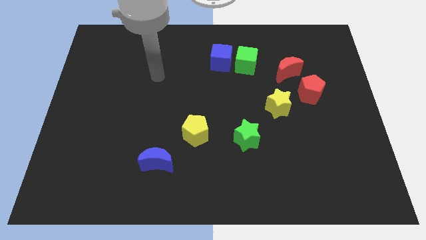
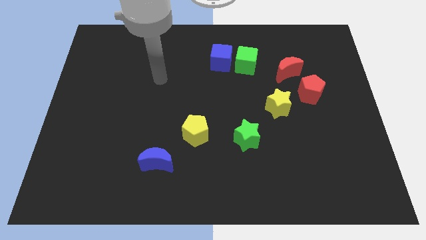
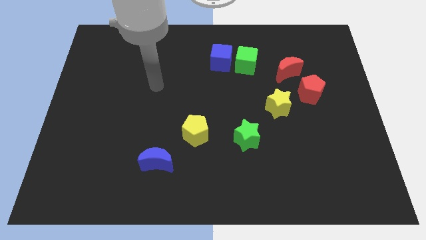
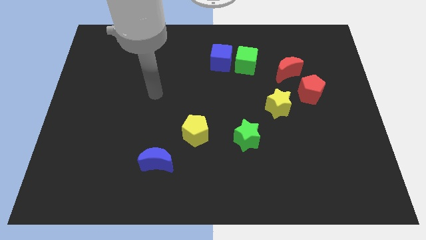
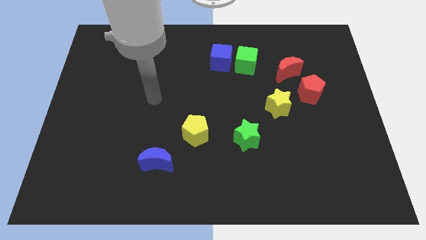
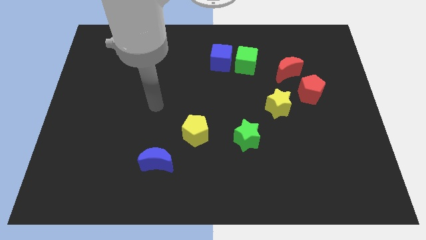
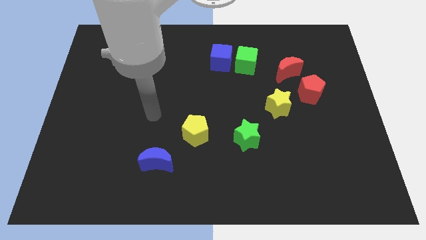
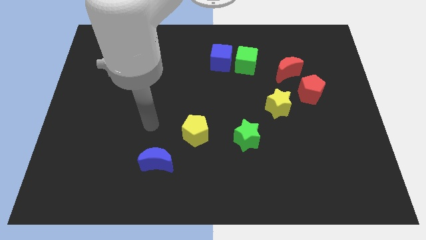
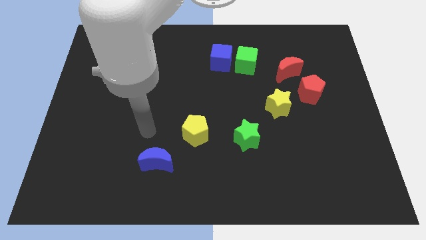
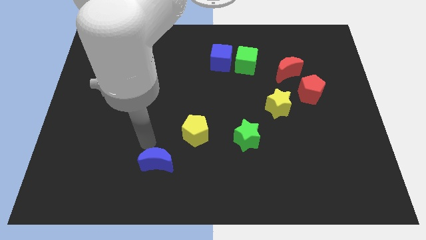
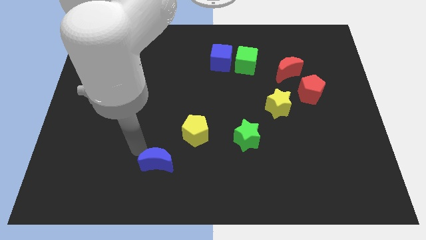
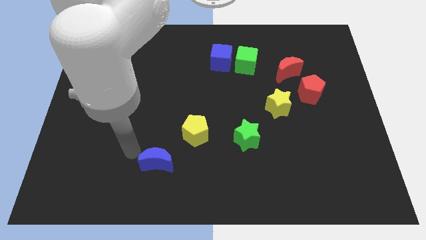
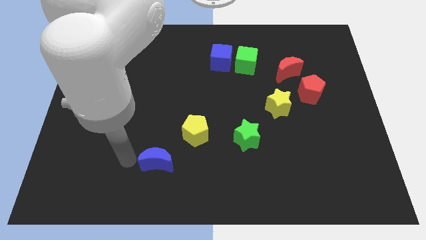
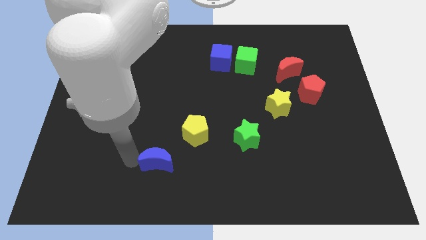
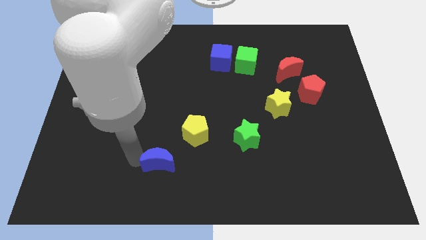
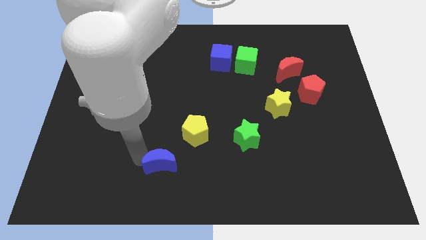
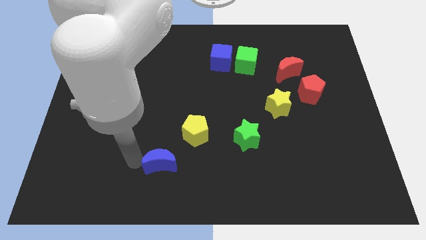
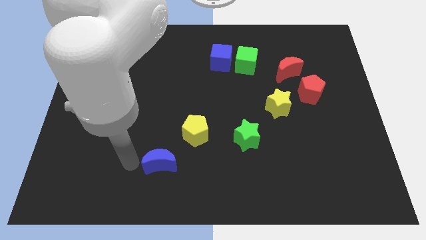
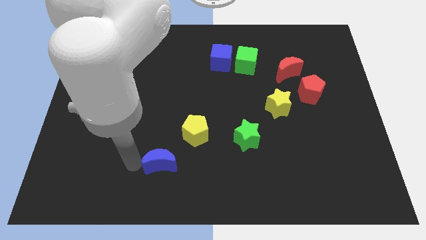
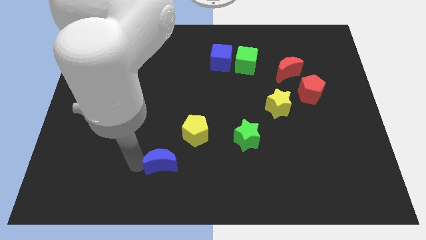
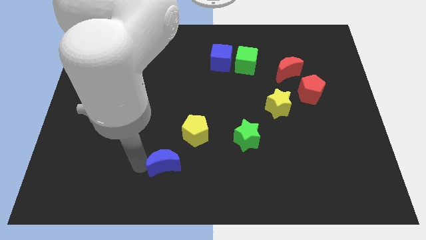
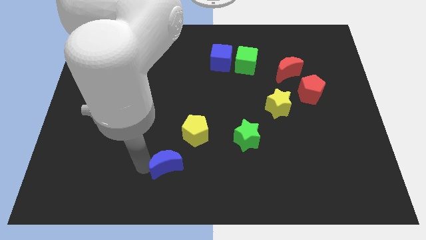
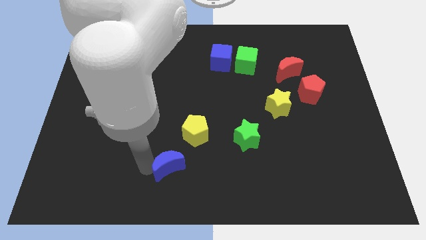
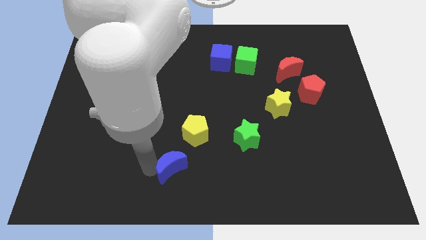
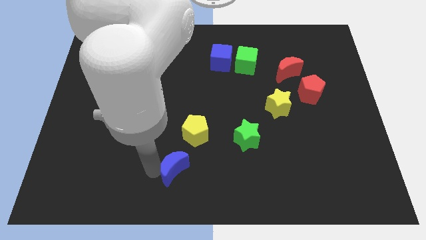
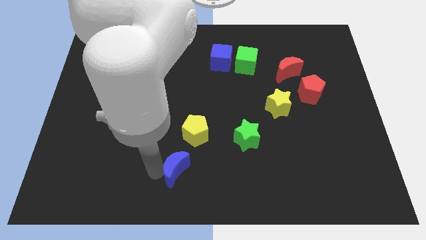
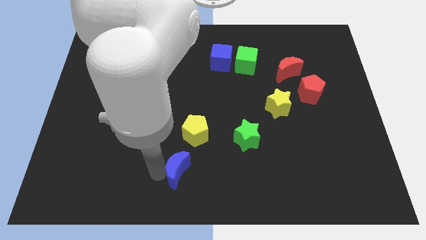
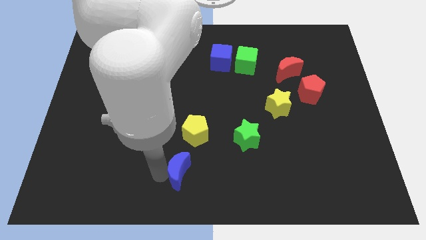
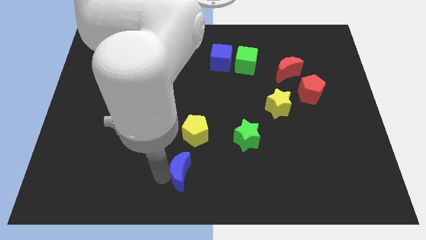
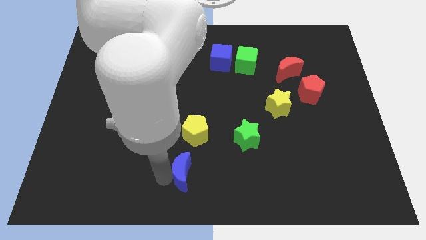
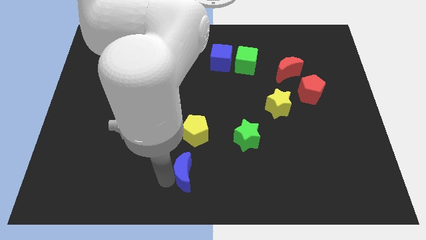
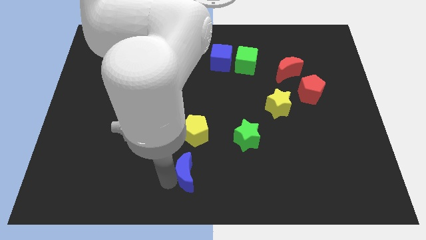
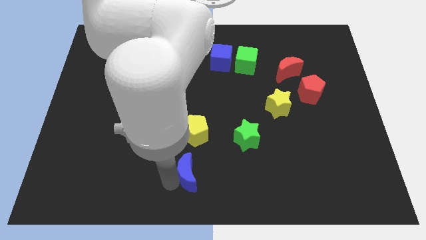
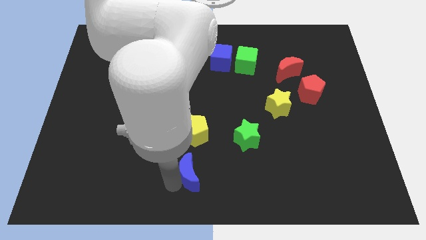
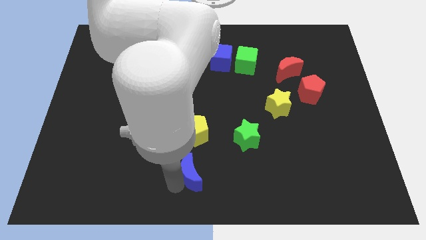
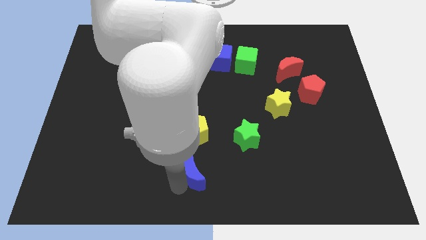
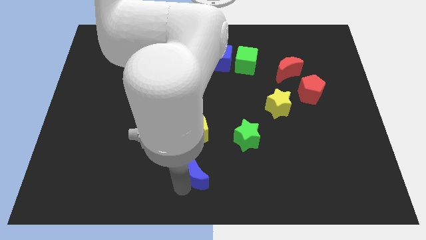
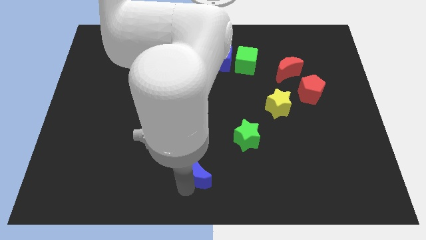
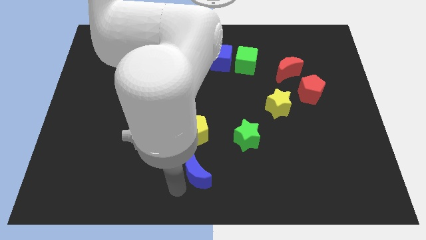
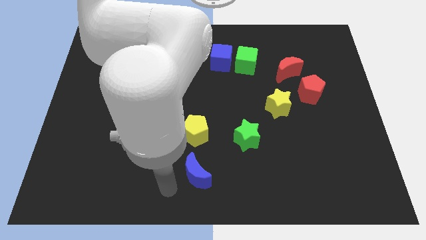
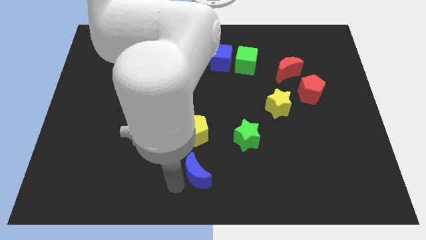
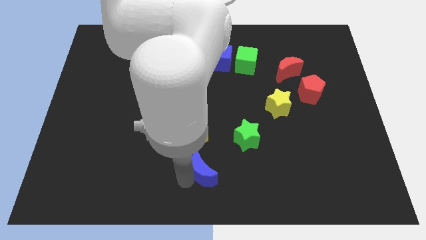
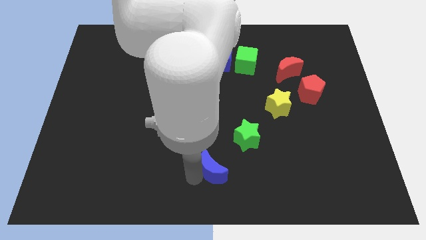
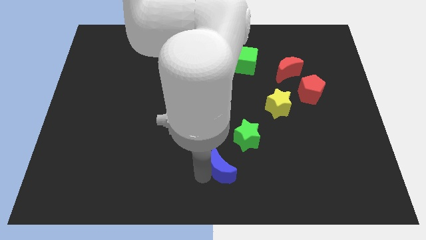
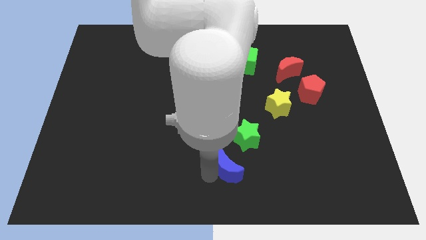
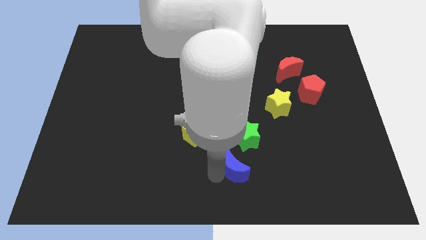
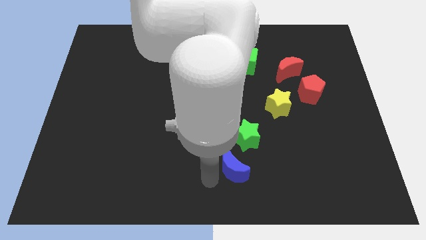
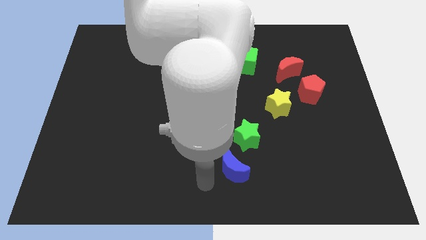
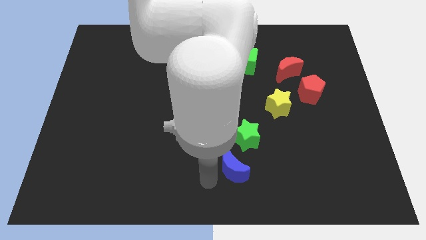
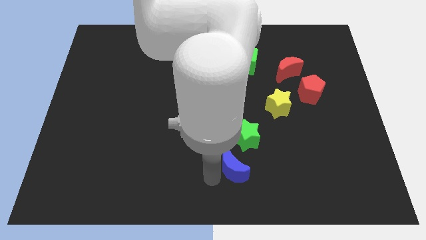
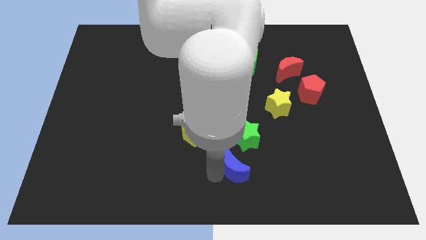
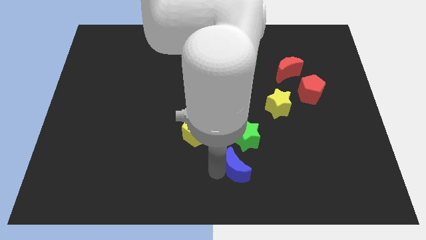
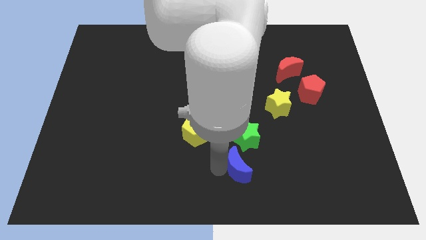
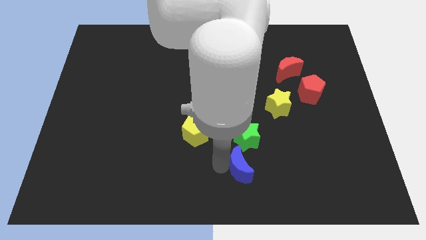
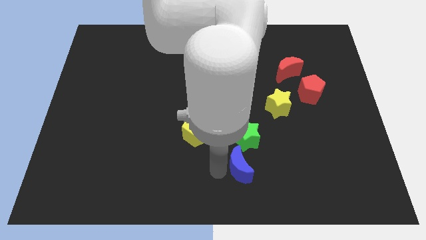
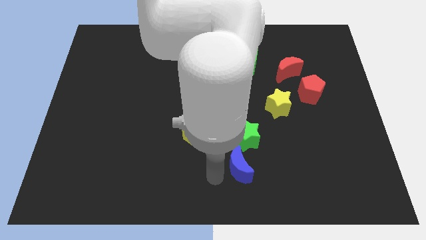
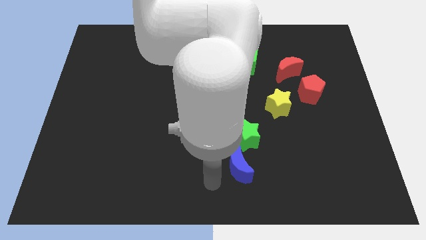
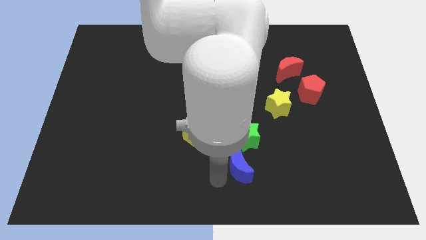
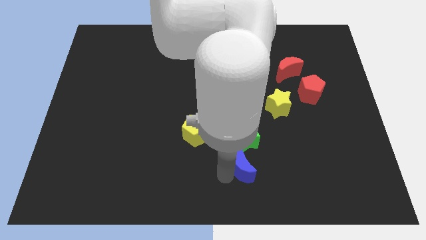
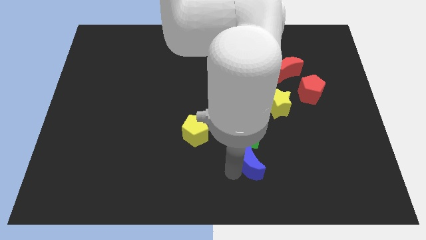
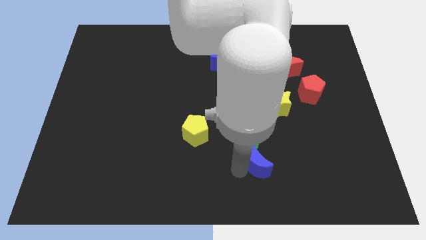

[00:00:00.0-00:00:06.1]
push the blue moon to the right

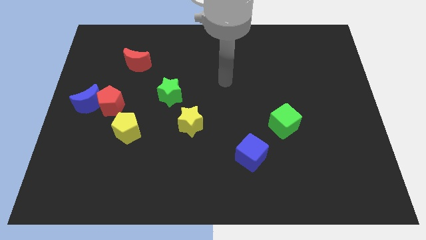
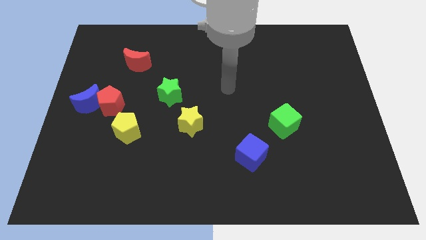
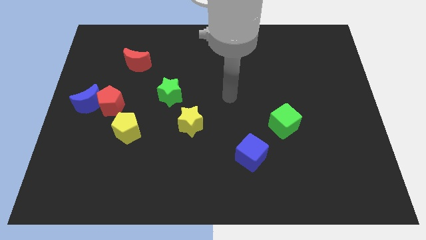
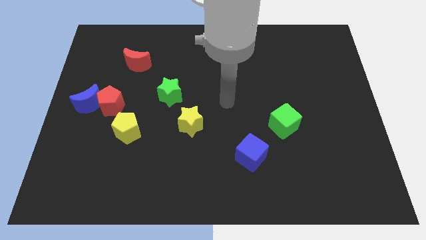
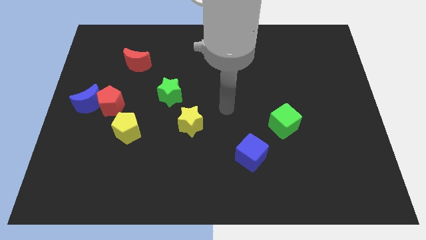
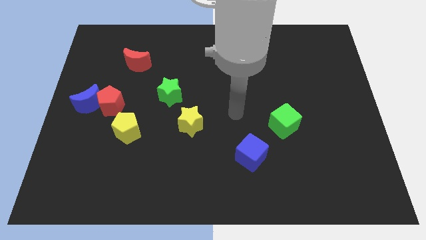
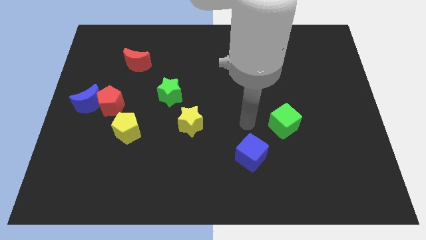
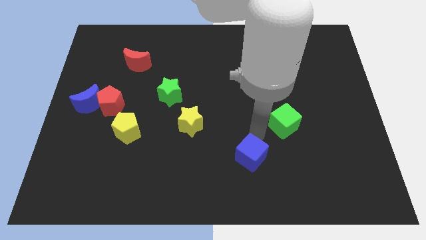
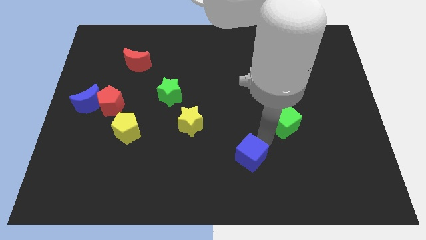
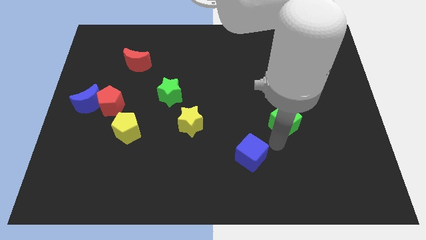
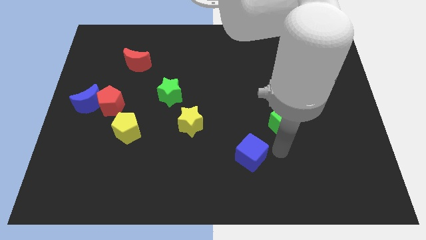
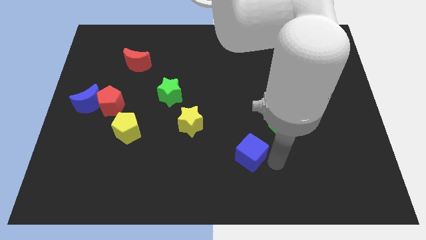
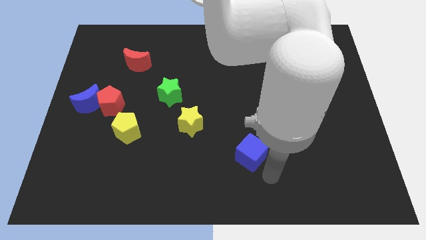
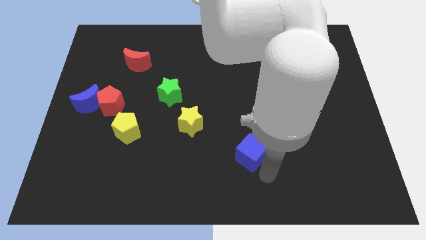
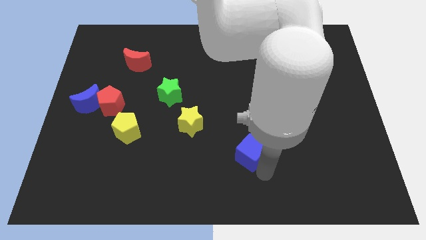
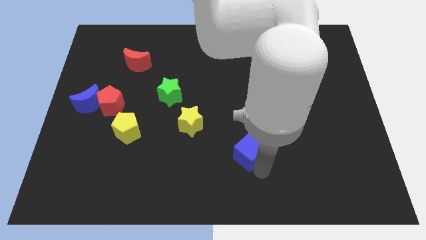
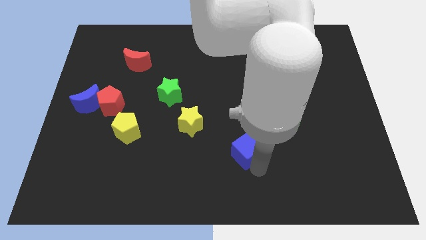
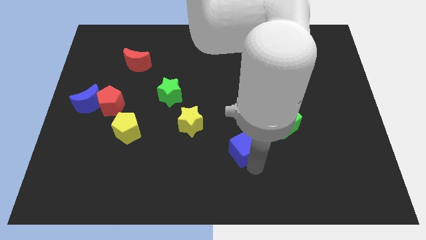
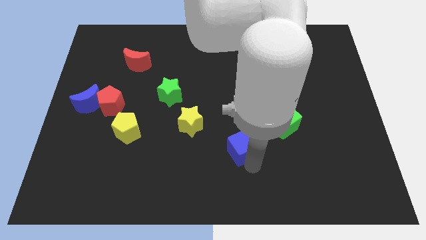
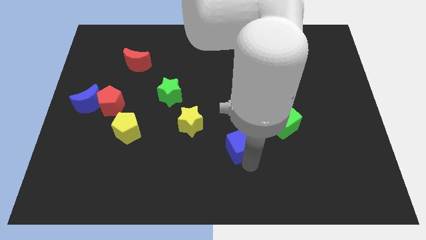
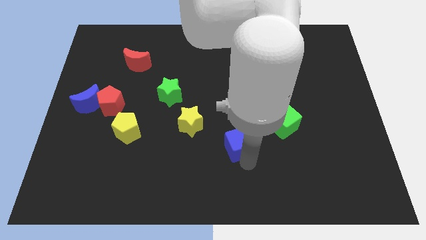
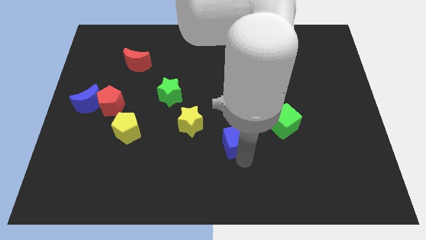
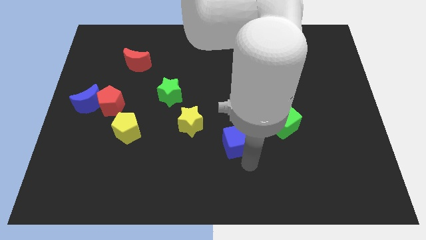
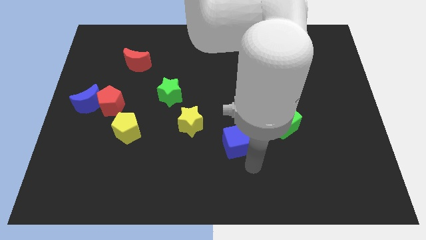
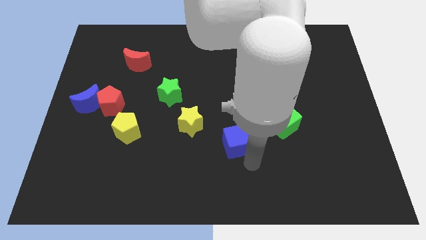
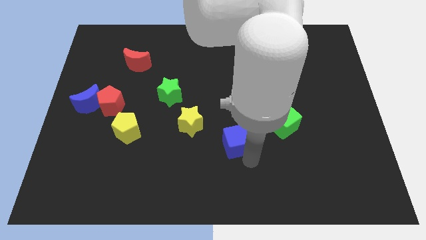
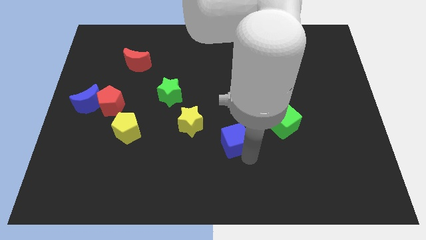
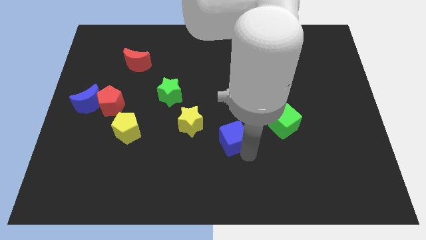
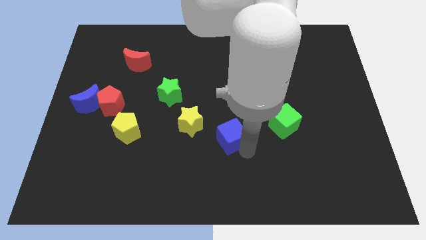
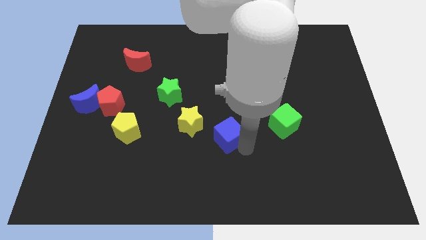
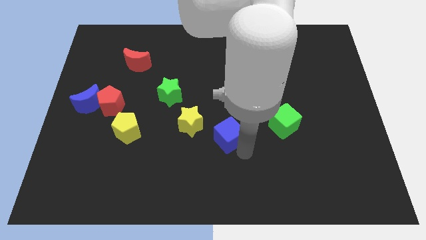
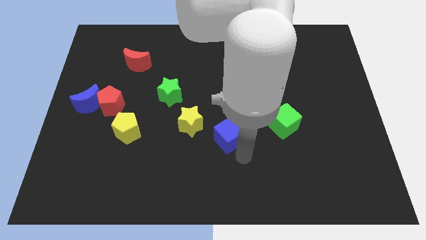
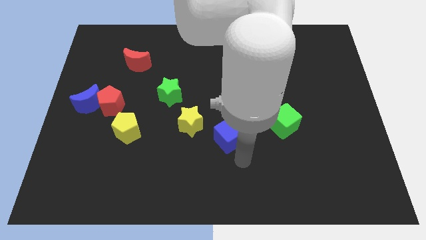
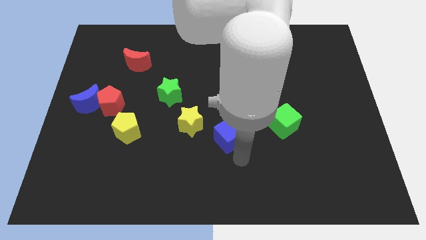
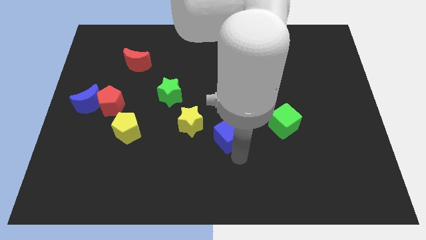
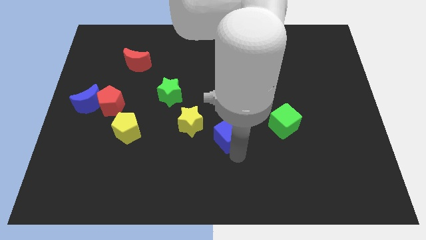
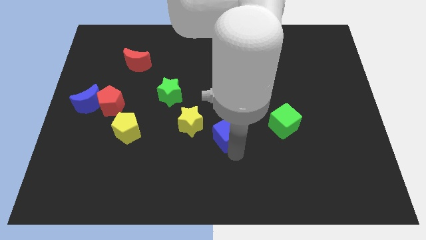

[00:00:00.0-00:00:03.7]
push the blue cube slightly upwards and then to the left
